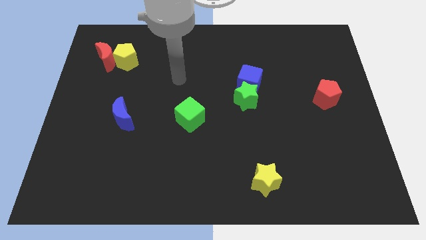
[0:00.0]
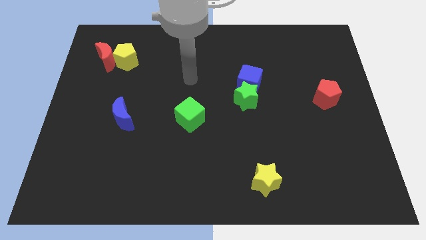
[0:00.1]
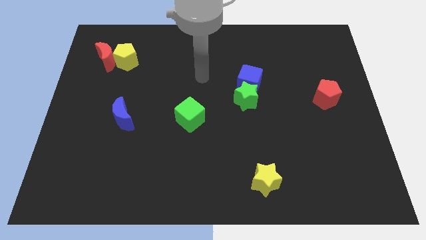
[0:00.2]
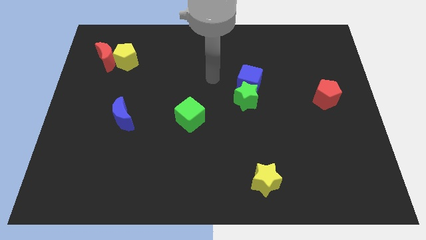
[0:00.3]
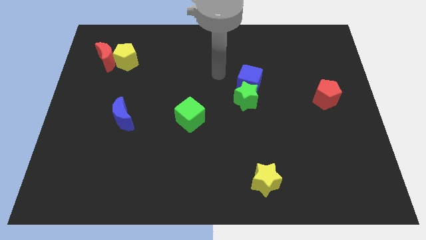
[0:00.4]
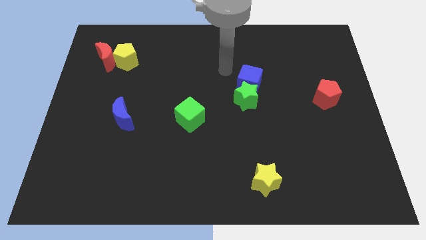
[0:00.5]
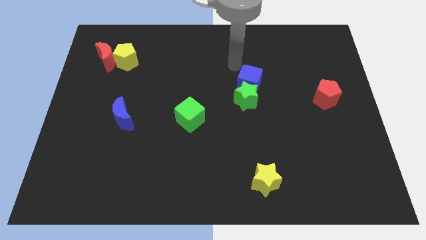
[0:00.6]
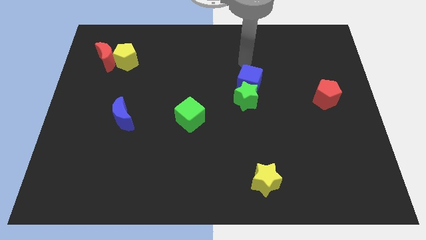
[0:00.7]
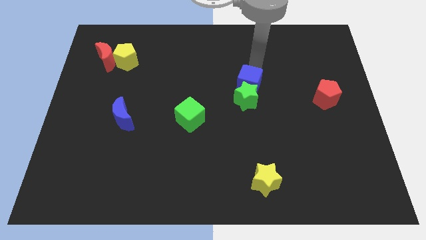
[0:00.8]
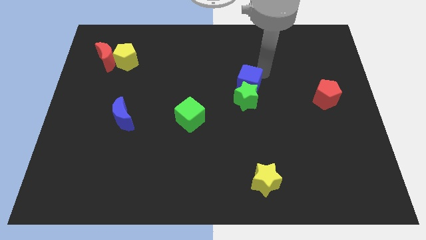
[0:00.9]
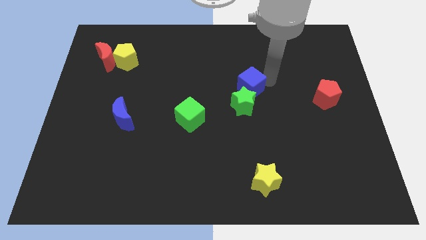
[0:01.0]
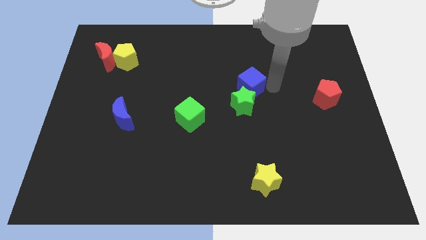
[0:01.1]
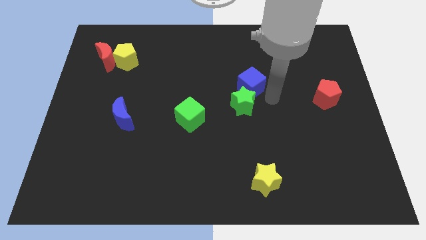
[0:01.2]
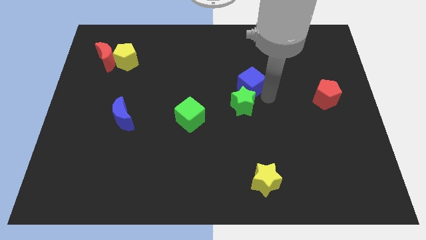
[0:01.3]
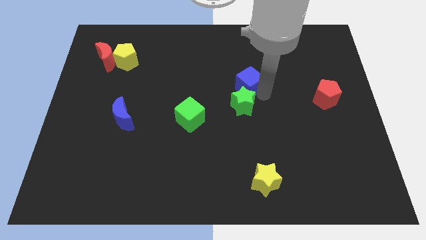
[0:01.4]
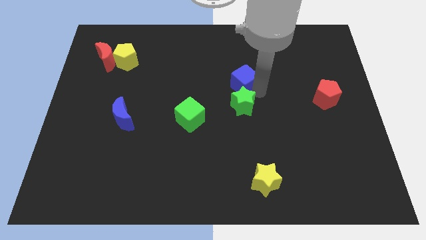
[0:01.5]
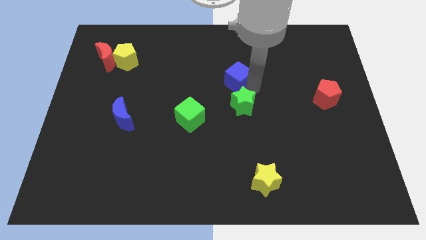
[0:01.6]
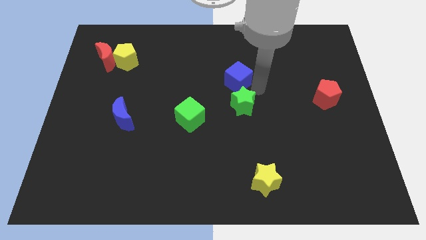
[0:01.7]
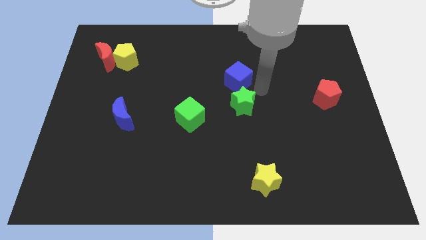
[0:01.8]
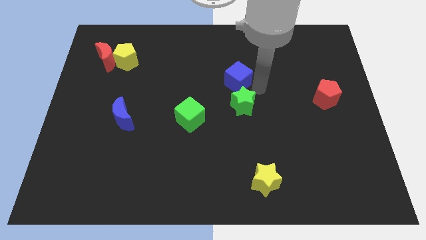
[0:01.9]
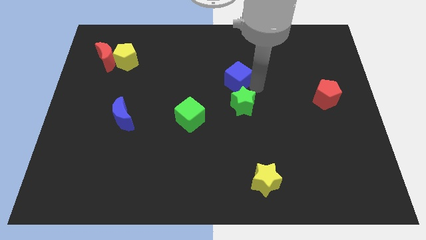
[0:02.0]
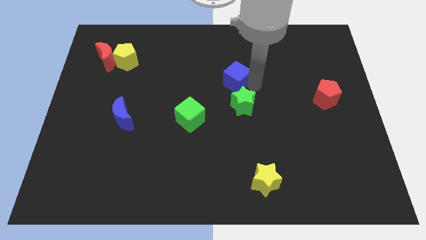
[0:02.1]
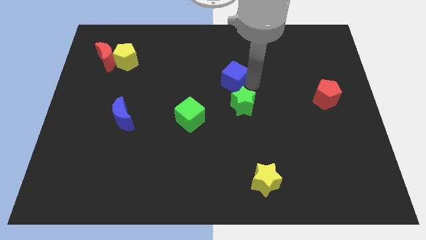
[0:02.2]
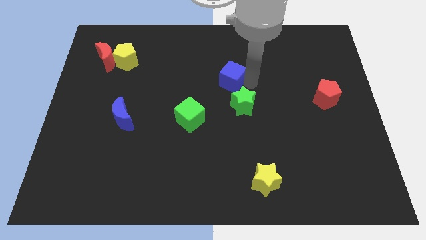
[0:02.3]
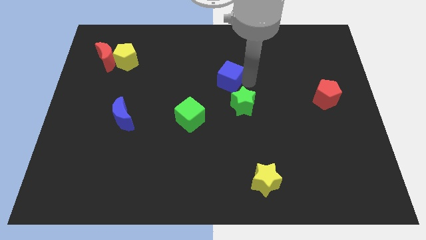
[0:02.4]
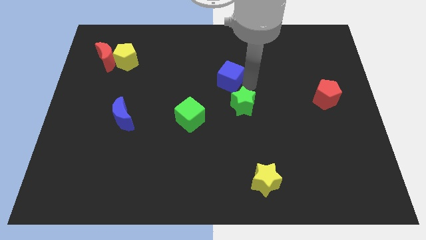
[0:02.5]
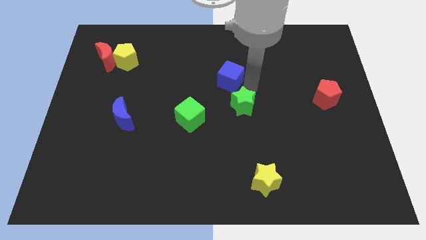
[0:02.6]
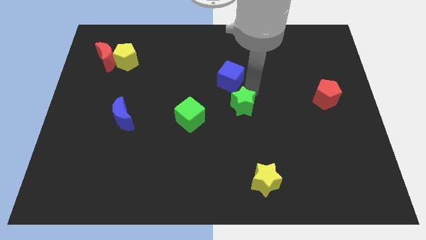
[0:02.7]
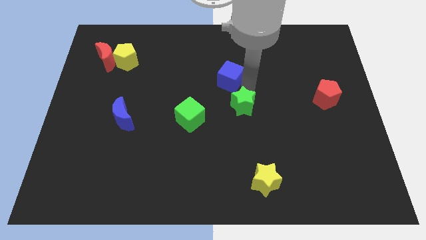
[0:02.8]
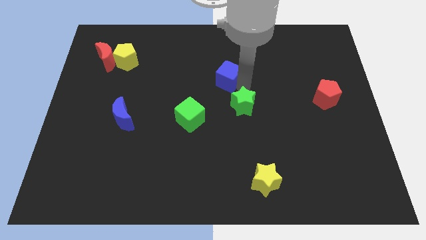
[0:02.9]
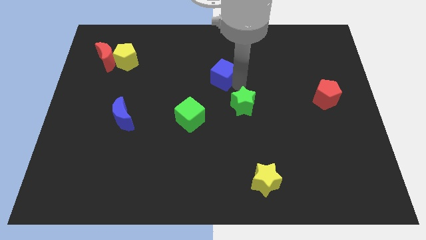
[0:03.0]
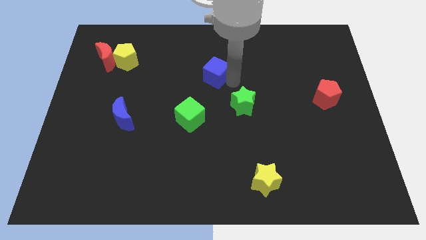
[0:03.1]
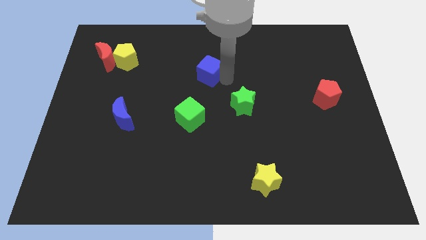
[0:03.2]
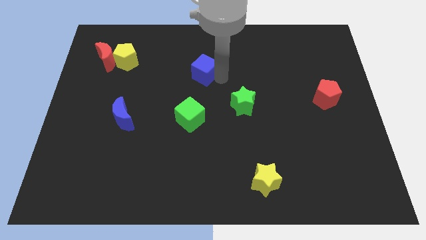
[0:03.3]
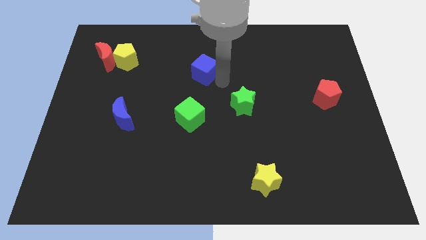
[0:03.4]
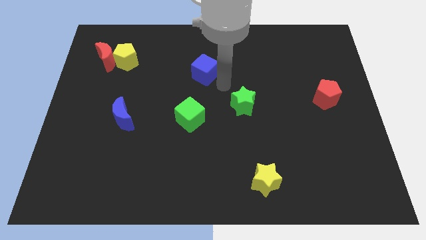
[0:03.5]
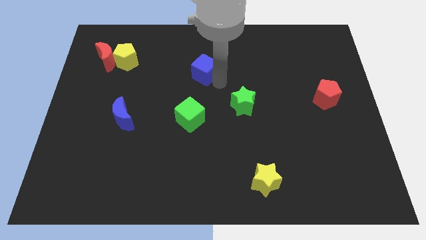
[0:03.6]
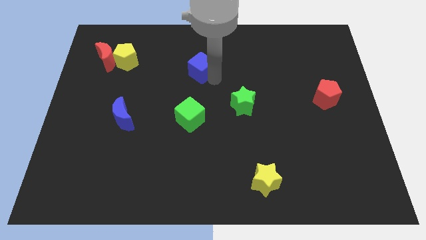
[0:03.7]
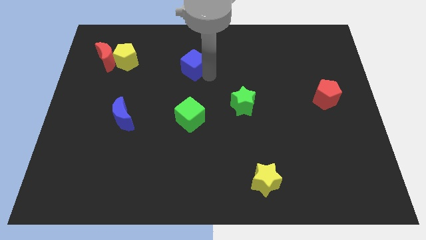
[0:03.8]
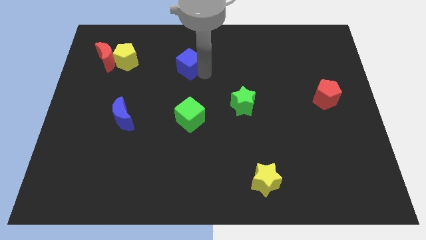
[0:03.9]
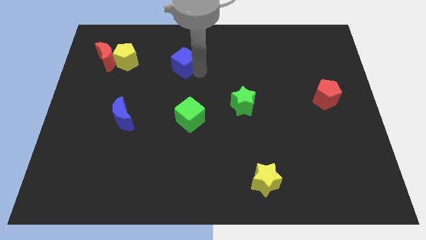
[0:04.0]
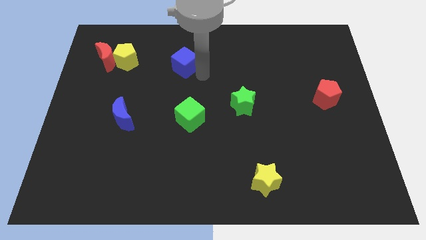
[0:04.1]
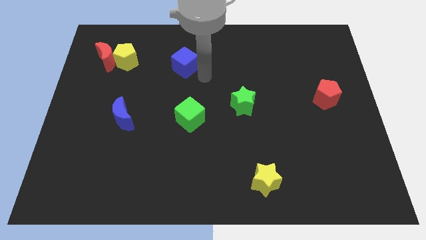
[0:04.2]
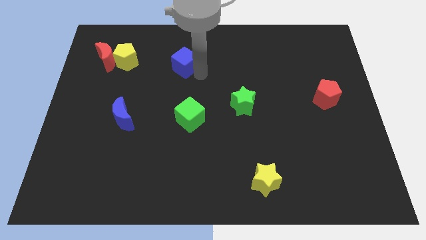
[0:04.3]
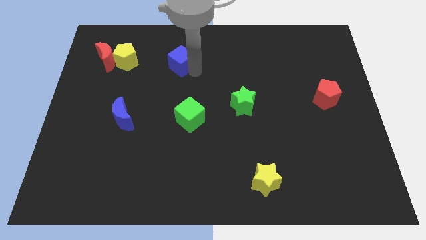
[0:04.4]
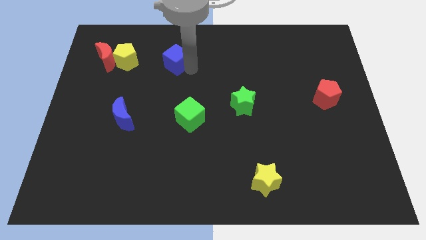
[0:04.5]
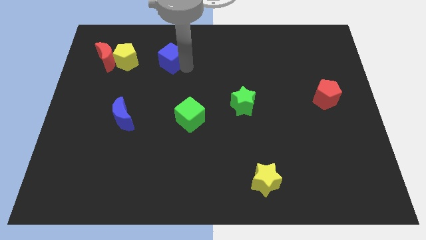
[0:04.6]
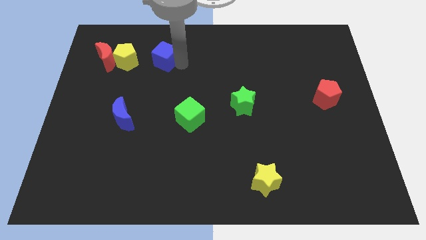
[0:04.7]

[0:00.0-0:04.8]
move the blue cube to the right of the red moon

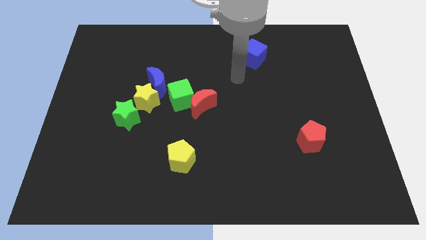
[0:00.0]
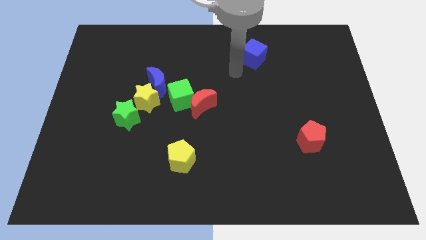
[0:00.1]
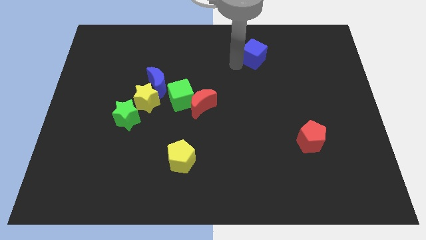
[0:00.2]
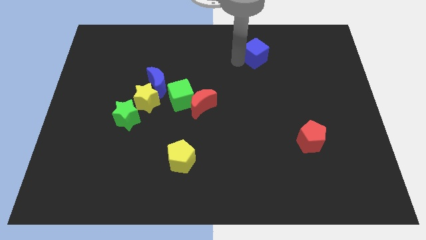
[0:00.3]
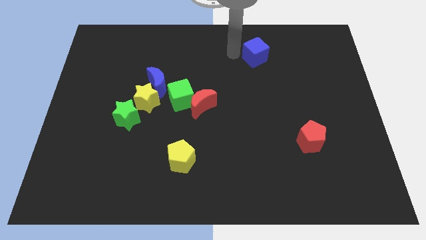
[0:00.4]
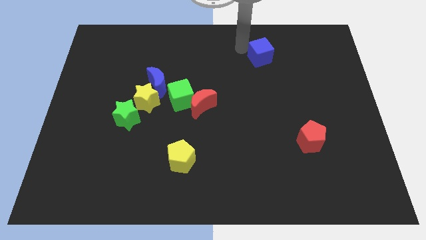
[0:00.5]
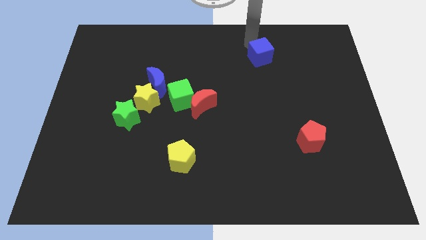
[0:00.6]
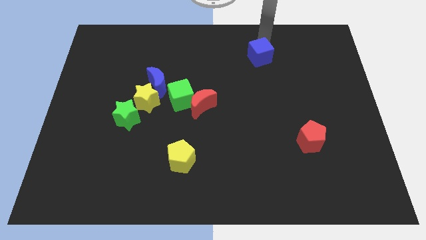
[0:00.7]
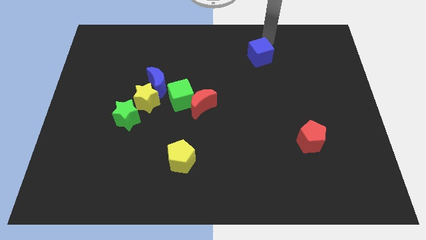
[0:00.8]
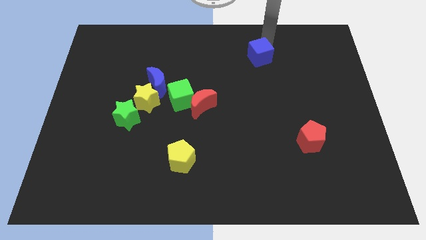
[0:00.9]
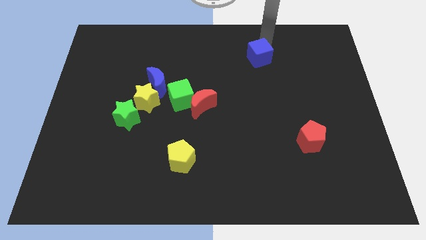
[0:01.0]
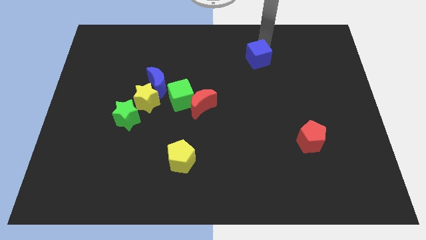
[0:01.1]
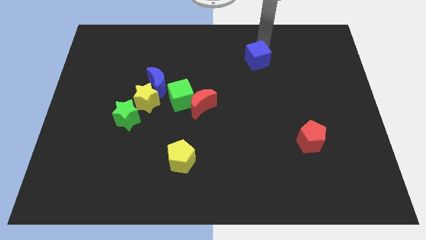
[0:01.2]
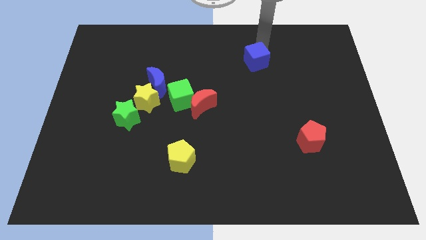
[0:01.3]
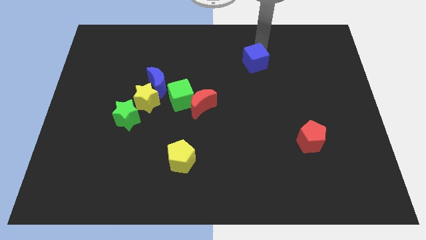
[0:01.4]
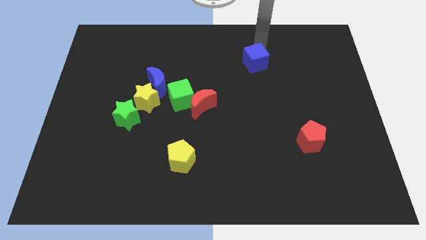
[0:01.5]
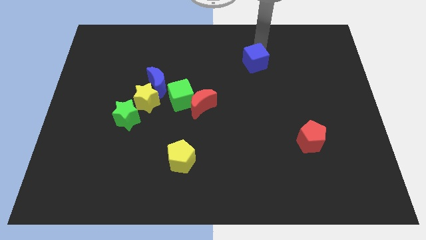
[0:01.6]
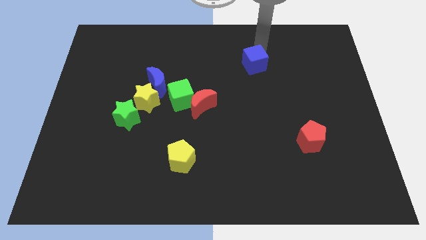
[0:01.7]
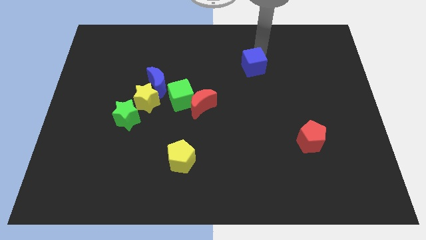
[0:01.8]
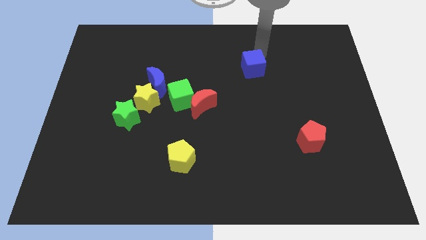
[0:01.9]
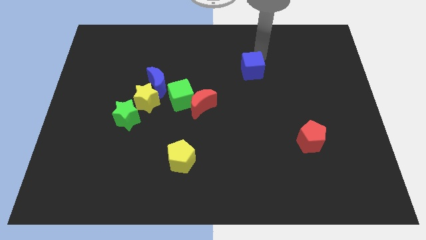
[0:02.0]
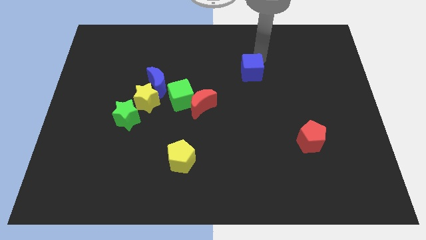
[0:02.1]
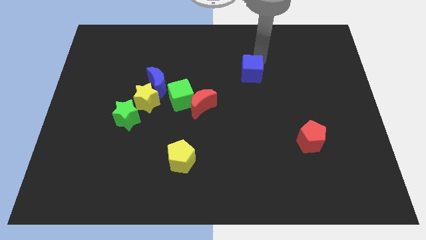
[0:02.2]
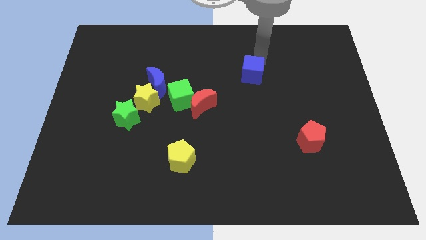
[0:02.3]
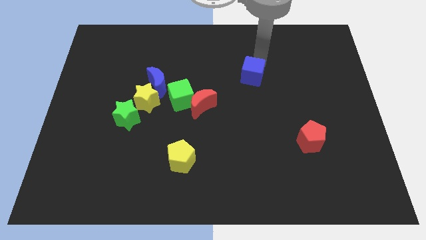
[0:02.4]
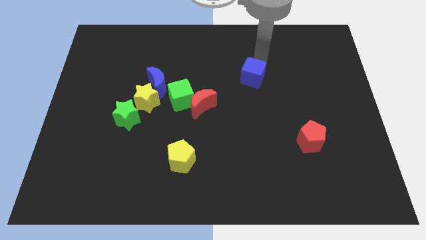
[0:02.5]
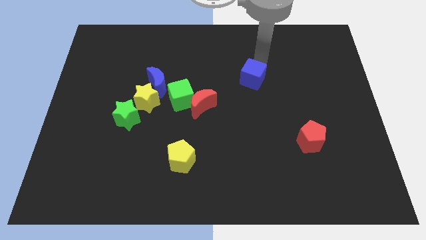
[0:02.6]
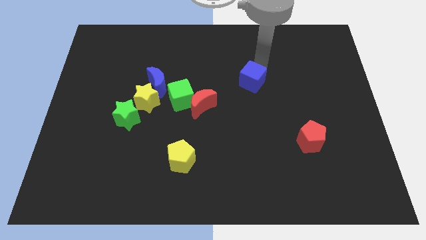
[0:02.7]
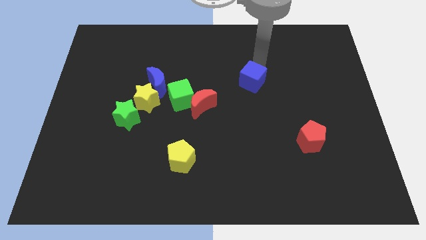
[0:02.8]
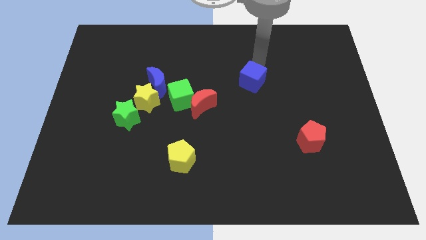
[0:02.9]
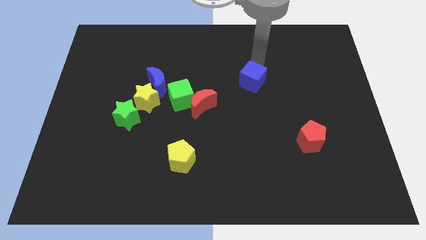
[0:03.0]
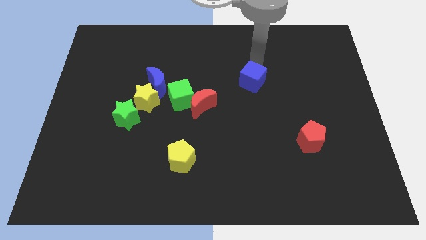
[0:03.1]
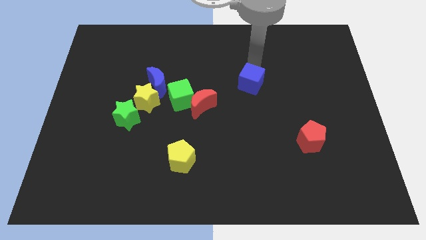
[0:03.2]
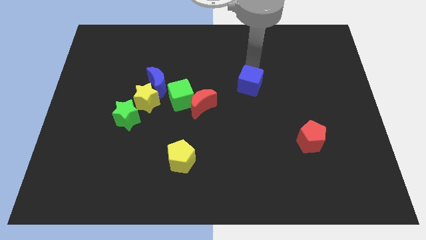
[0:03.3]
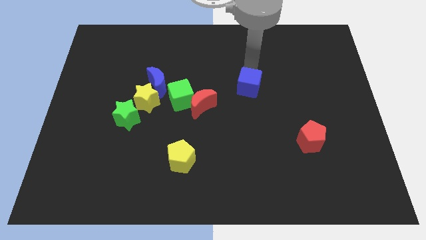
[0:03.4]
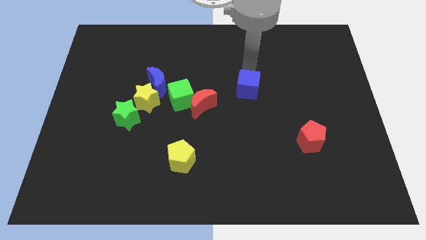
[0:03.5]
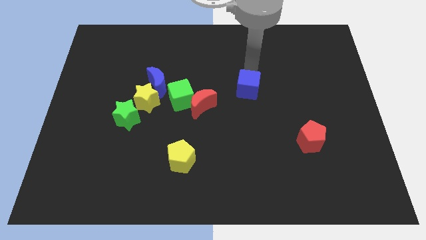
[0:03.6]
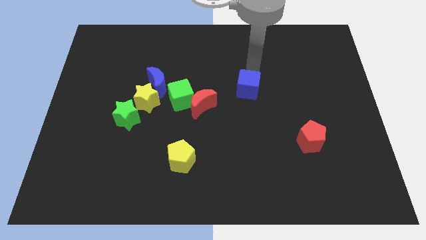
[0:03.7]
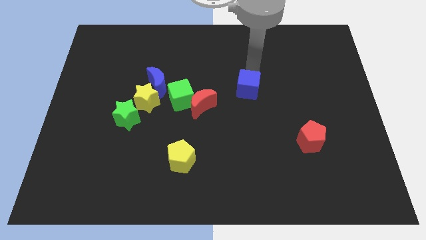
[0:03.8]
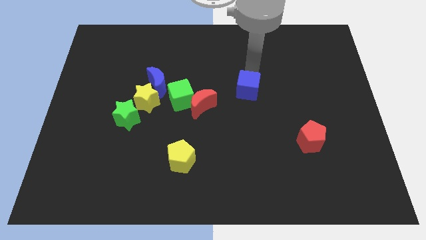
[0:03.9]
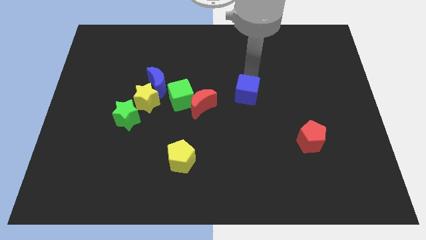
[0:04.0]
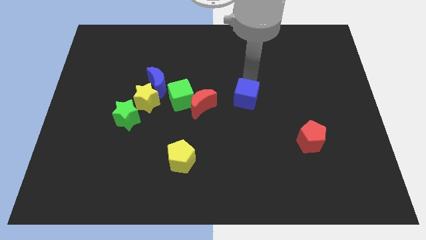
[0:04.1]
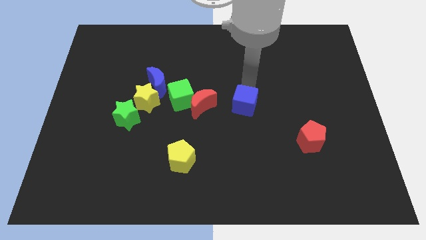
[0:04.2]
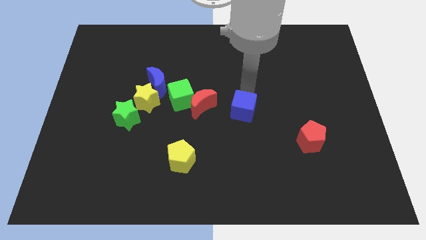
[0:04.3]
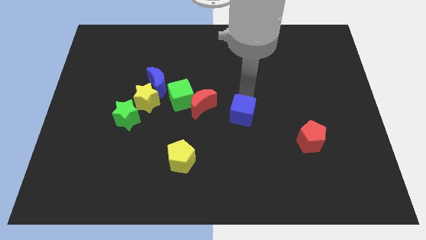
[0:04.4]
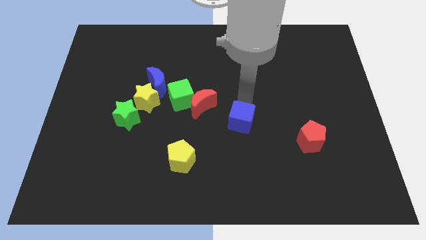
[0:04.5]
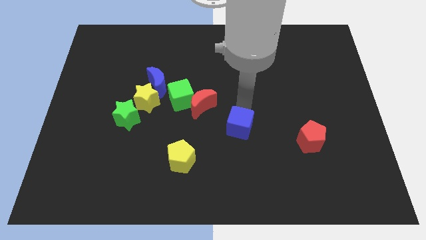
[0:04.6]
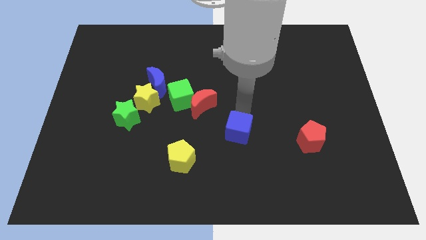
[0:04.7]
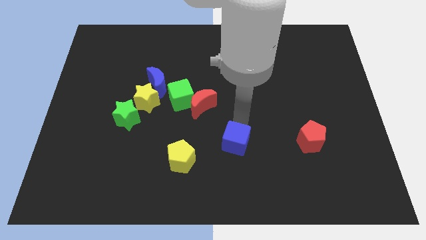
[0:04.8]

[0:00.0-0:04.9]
put the blue cube just right of the yellow pentagon
